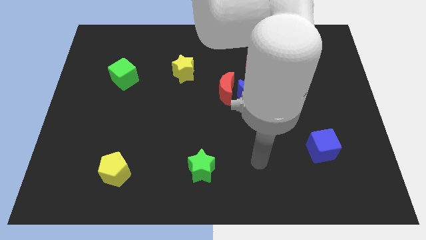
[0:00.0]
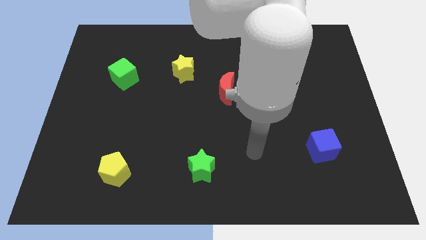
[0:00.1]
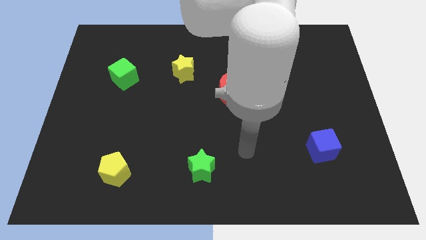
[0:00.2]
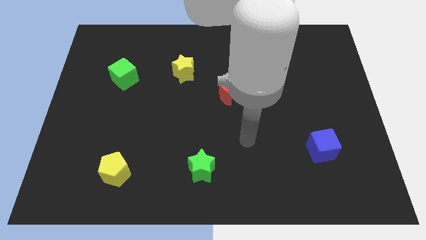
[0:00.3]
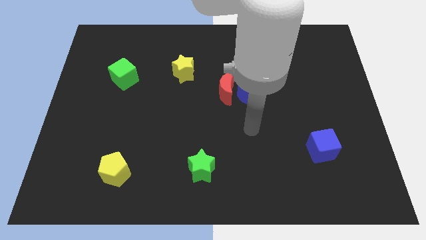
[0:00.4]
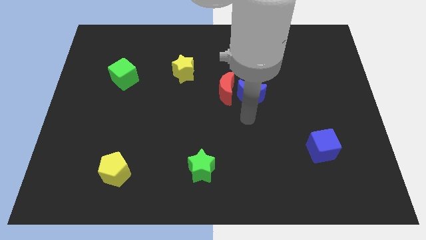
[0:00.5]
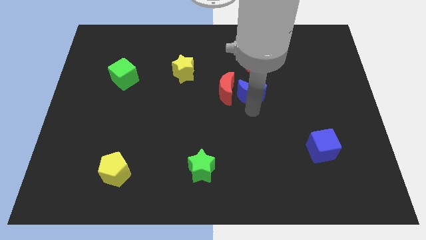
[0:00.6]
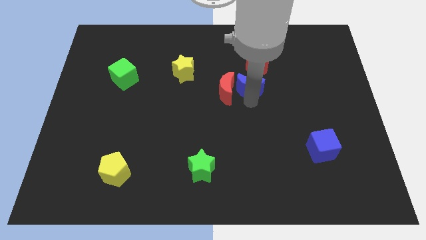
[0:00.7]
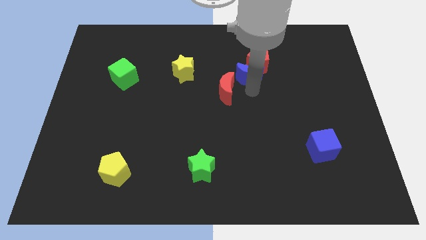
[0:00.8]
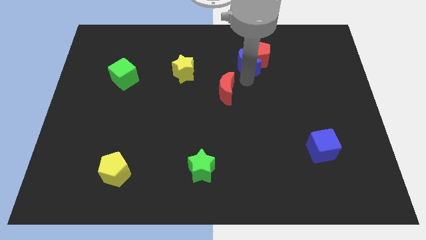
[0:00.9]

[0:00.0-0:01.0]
pull the red moon apart from the blue moon

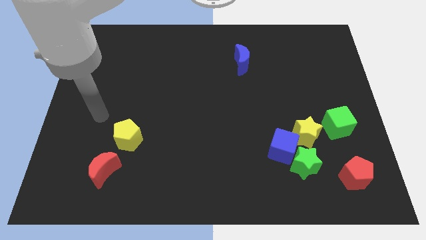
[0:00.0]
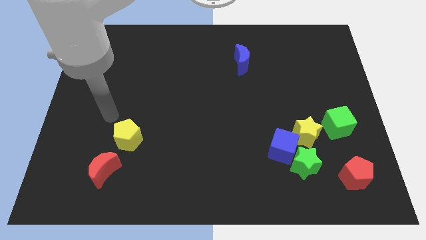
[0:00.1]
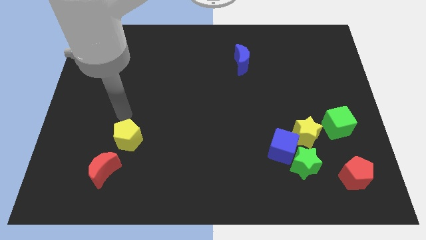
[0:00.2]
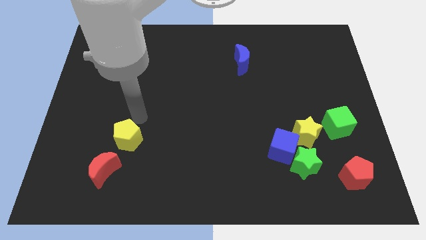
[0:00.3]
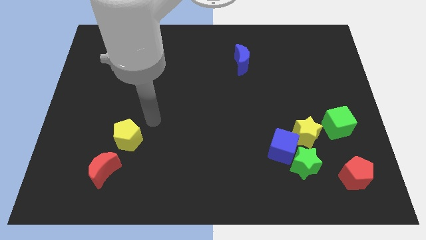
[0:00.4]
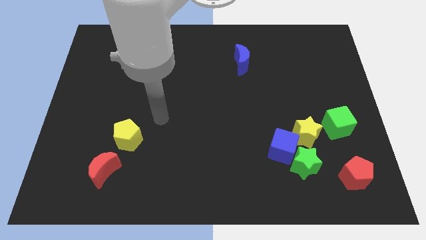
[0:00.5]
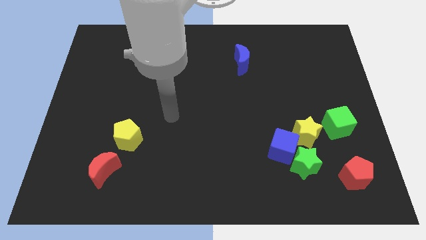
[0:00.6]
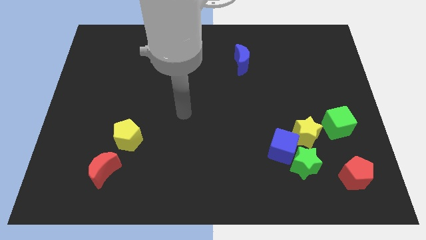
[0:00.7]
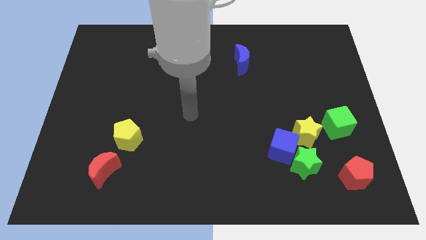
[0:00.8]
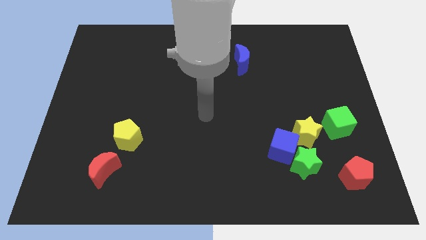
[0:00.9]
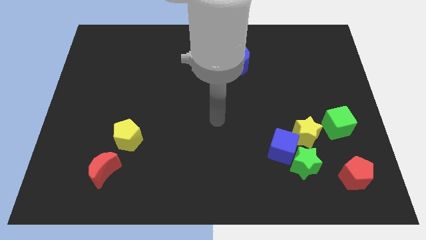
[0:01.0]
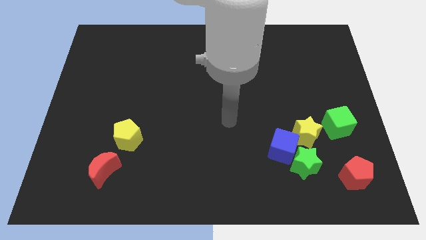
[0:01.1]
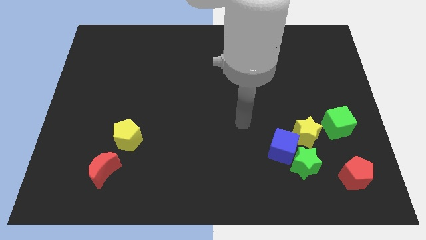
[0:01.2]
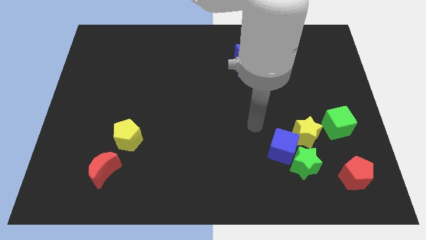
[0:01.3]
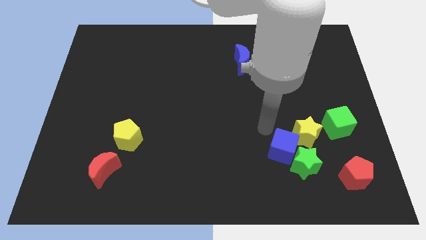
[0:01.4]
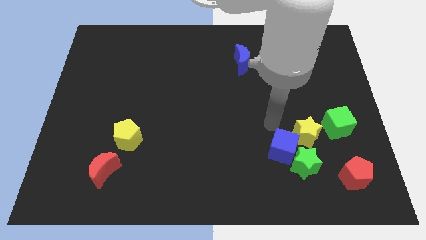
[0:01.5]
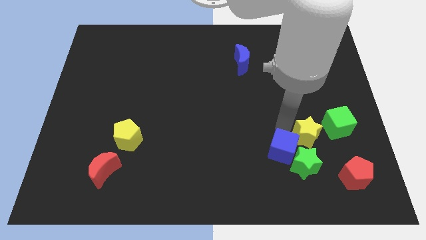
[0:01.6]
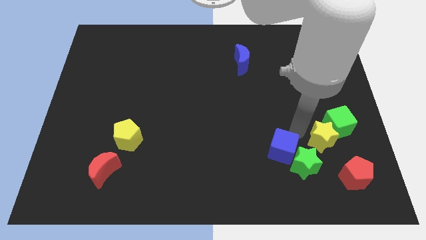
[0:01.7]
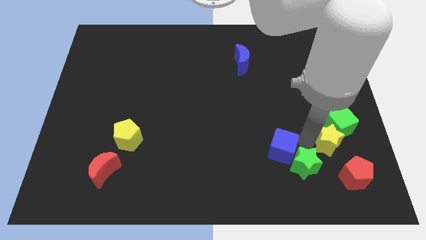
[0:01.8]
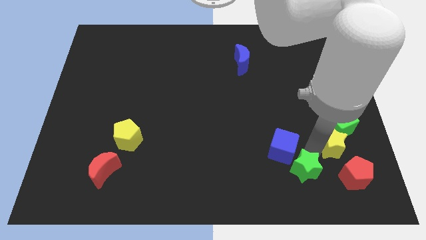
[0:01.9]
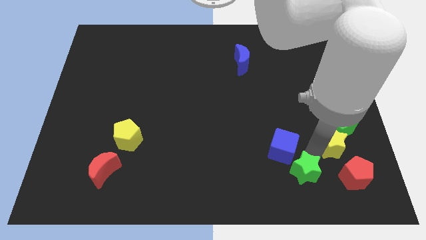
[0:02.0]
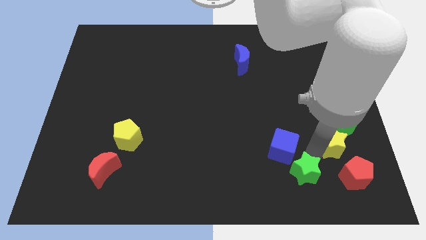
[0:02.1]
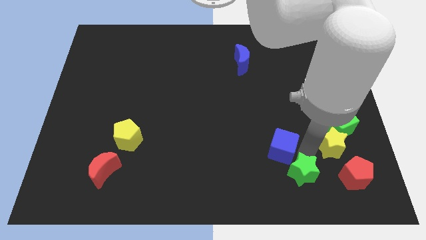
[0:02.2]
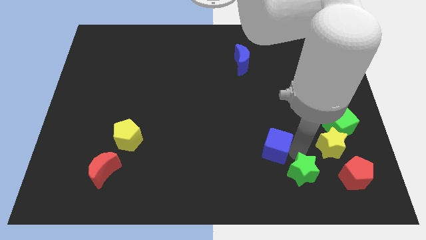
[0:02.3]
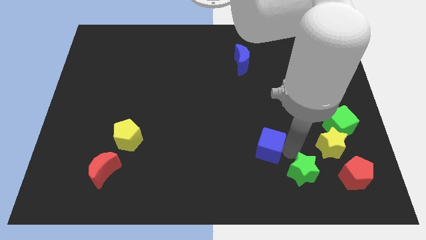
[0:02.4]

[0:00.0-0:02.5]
separate the blue cube from the green star and yellow star

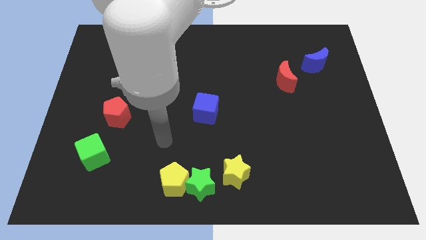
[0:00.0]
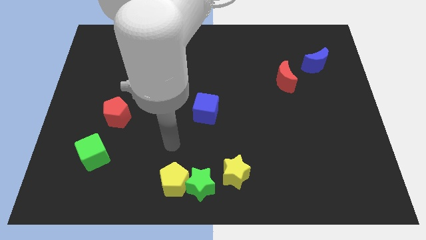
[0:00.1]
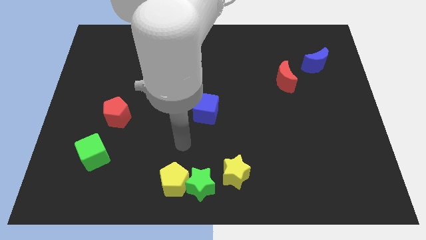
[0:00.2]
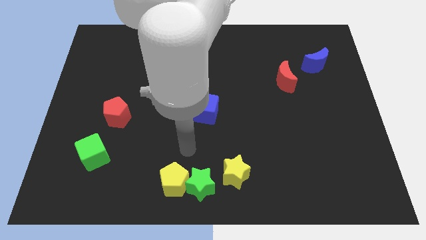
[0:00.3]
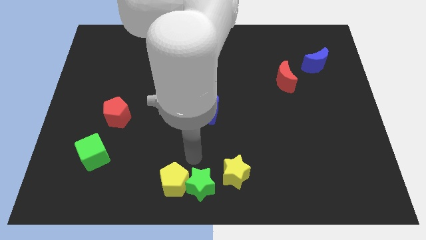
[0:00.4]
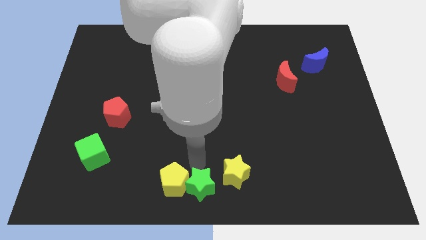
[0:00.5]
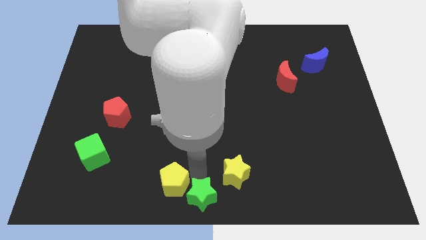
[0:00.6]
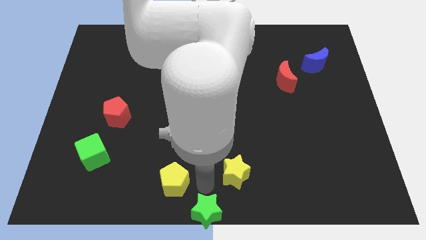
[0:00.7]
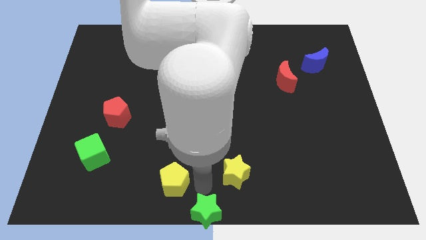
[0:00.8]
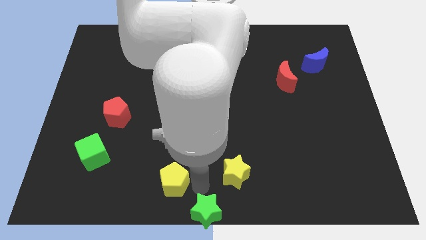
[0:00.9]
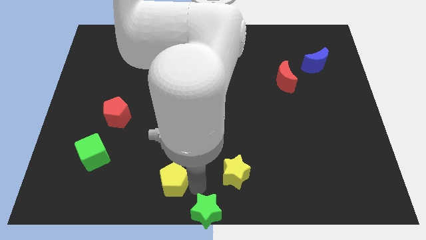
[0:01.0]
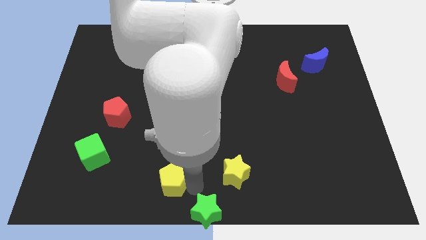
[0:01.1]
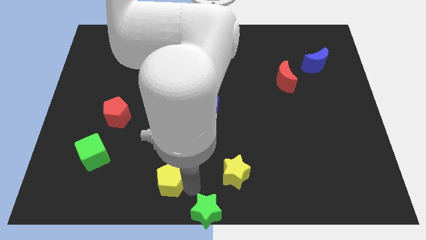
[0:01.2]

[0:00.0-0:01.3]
move the yellow pentagon away from the green star

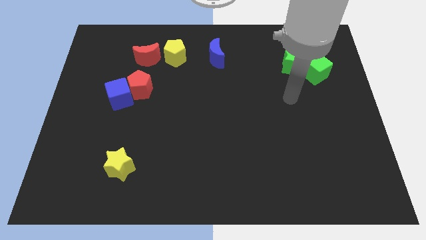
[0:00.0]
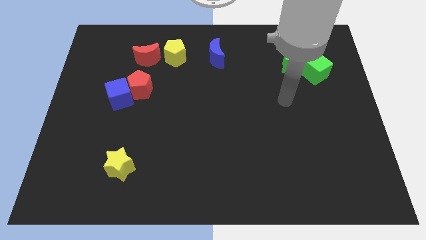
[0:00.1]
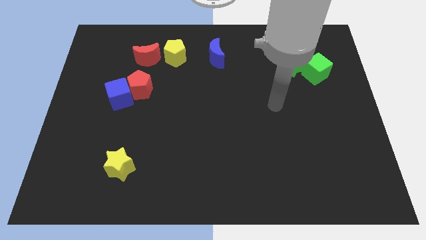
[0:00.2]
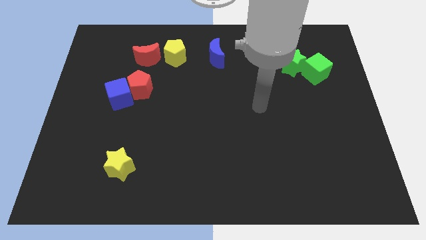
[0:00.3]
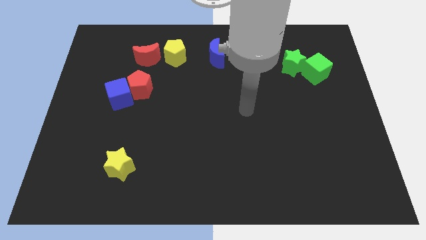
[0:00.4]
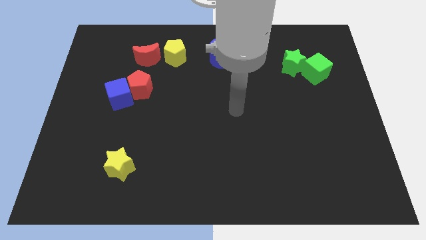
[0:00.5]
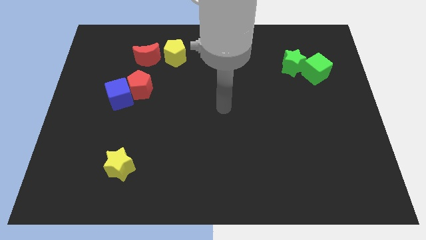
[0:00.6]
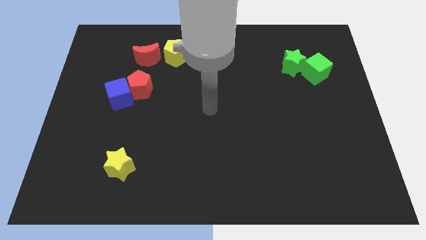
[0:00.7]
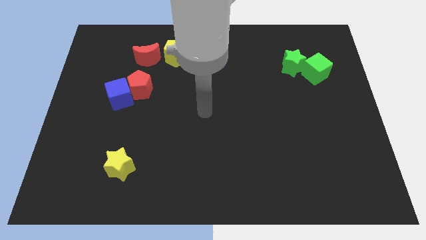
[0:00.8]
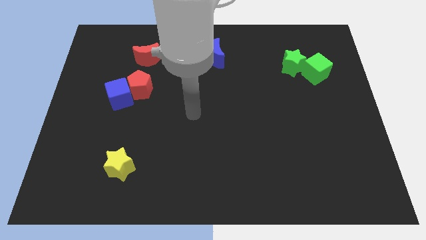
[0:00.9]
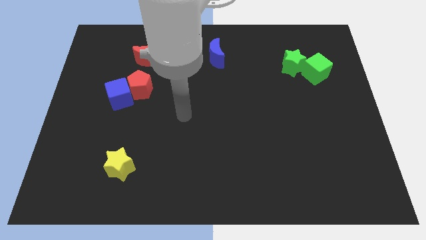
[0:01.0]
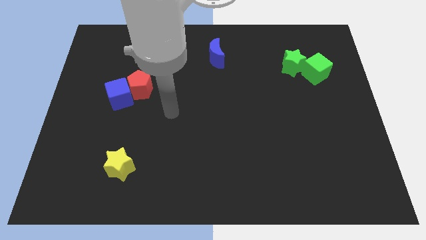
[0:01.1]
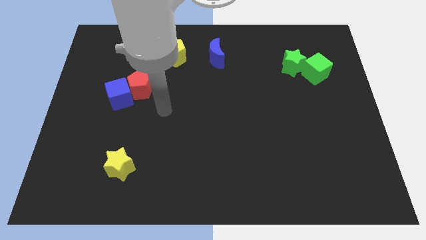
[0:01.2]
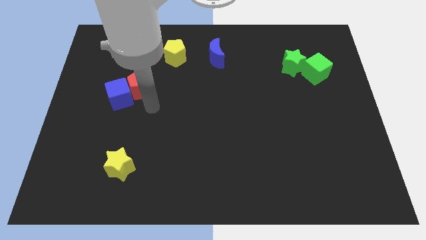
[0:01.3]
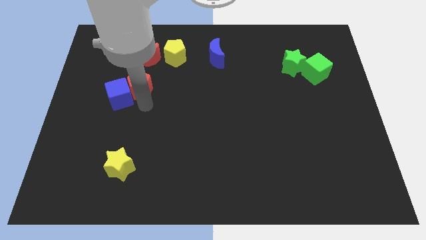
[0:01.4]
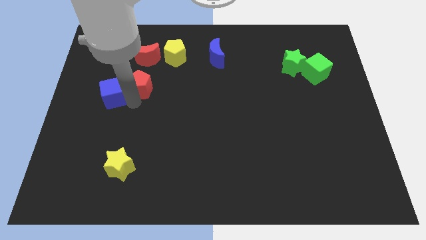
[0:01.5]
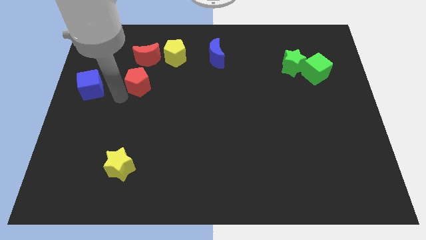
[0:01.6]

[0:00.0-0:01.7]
pull the red pentagon apart from the blue cube

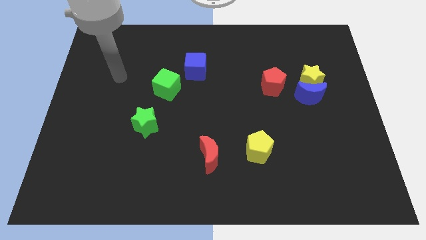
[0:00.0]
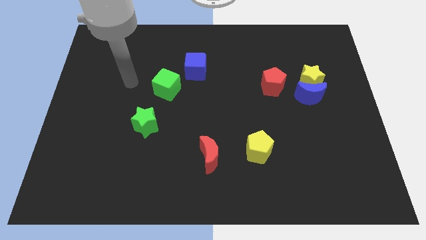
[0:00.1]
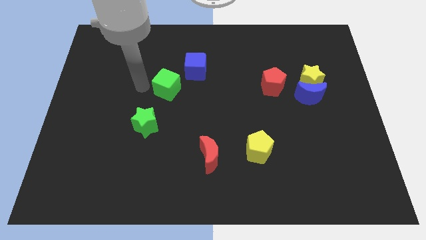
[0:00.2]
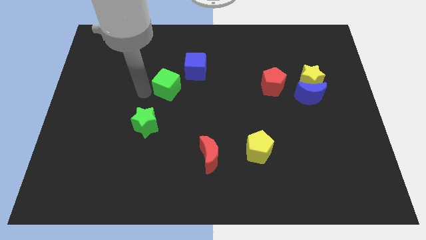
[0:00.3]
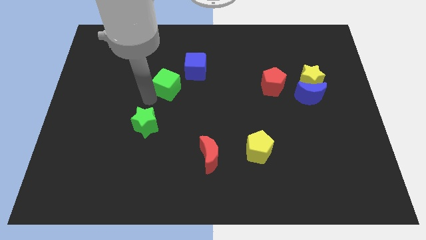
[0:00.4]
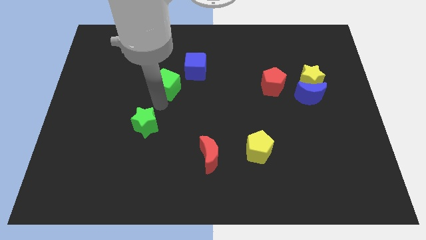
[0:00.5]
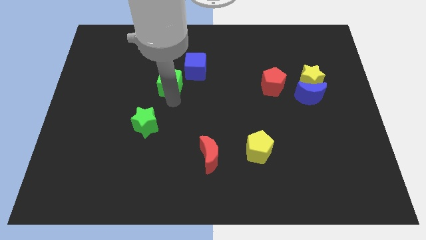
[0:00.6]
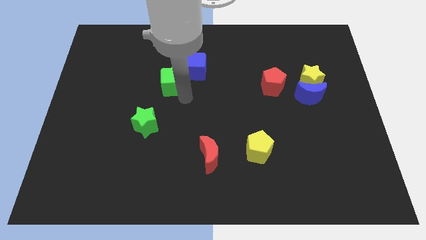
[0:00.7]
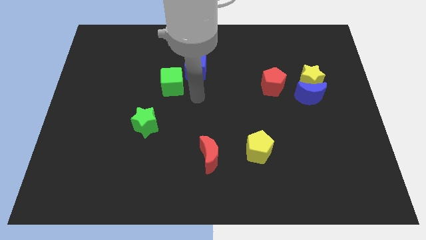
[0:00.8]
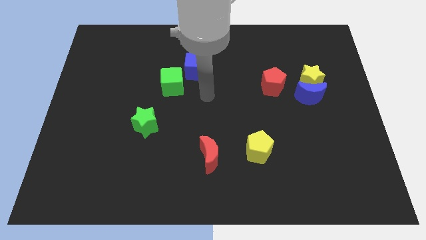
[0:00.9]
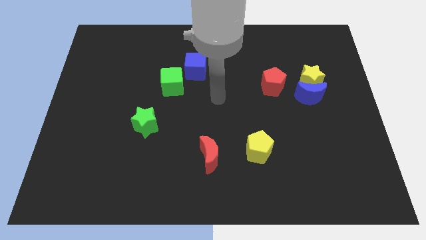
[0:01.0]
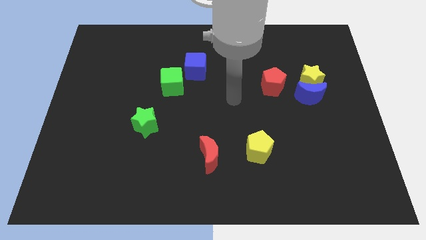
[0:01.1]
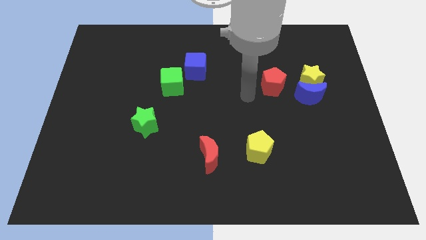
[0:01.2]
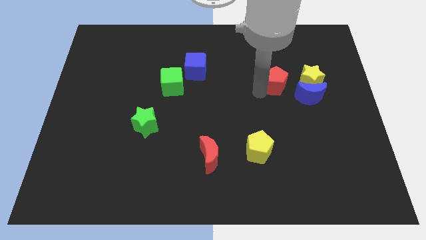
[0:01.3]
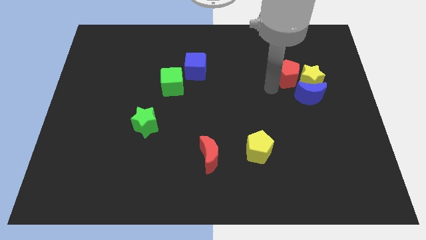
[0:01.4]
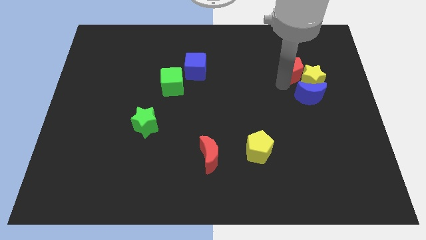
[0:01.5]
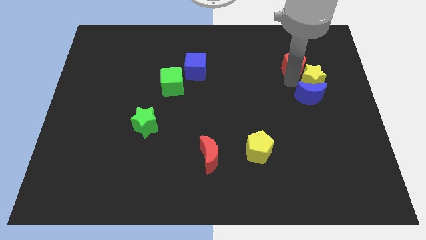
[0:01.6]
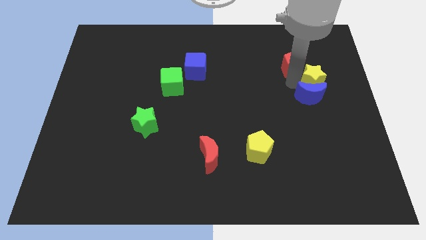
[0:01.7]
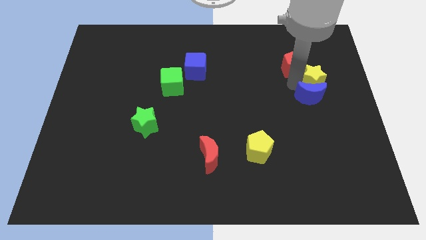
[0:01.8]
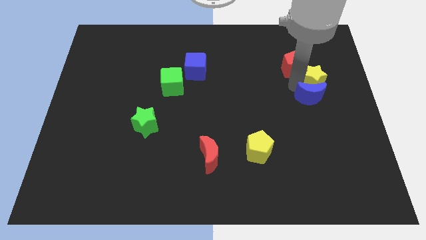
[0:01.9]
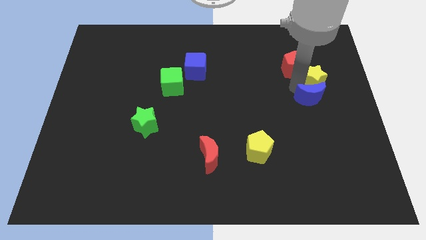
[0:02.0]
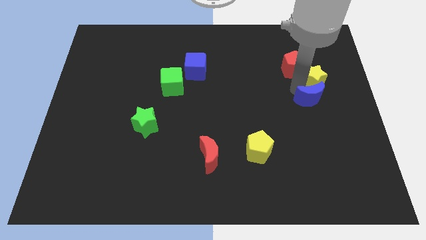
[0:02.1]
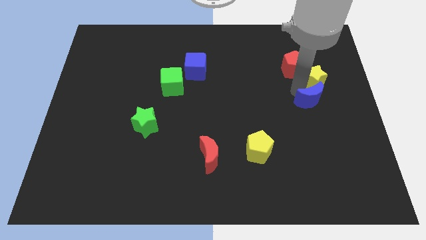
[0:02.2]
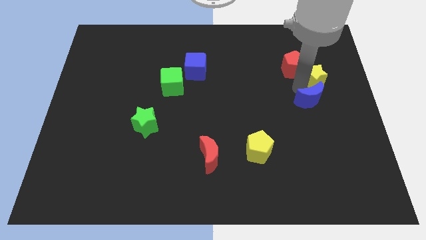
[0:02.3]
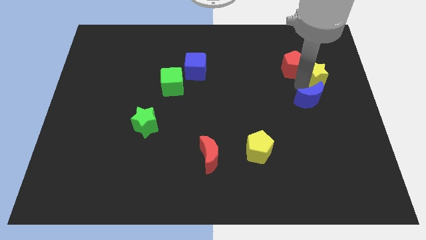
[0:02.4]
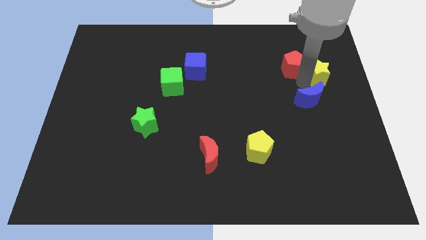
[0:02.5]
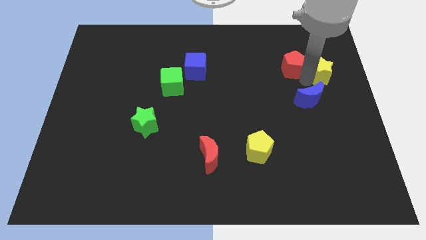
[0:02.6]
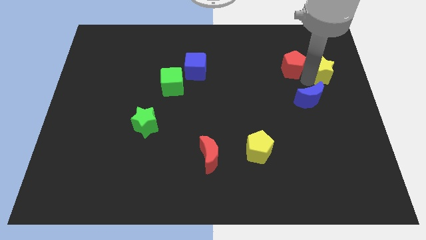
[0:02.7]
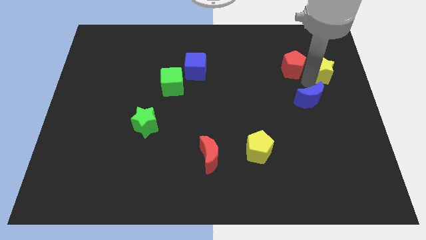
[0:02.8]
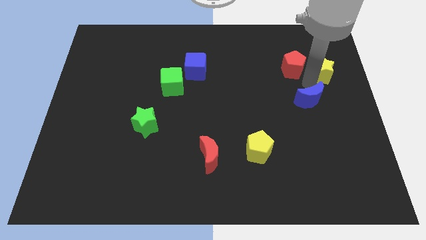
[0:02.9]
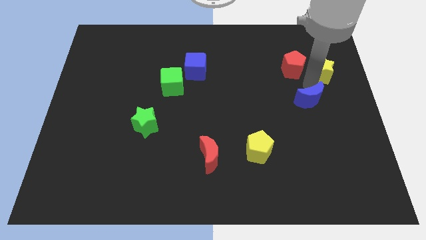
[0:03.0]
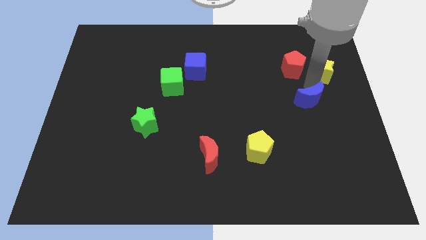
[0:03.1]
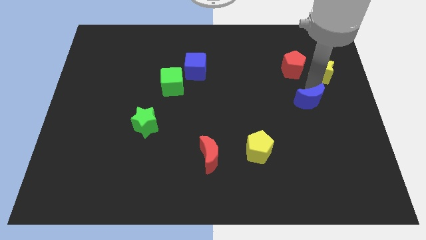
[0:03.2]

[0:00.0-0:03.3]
separate the blue moon from the yellow star and red pentagon
